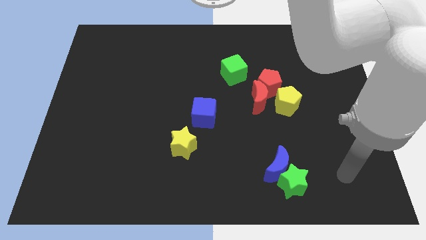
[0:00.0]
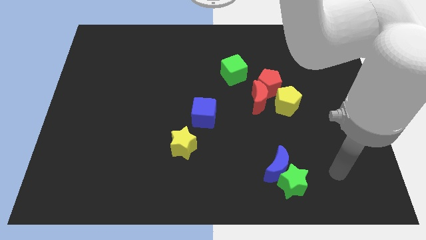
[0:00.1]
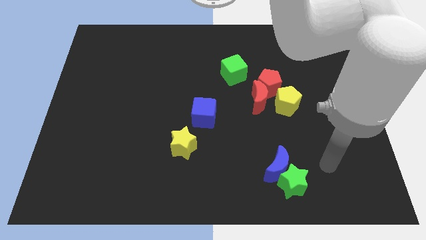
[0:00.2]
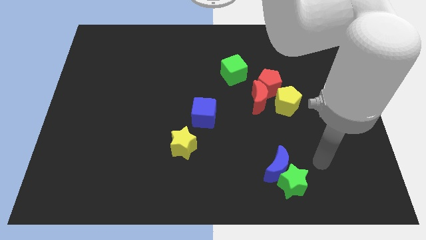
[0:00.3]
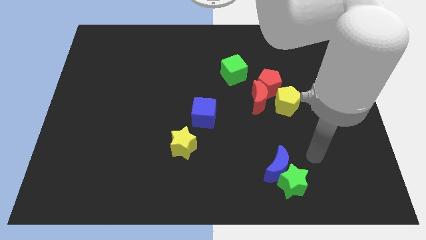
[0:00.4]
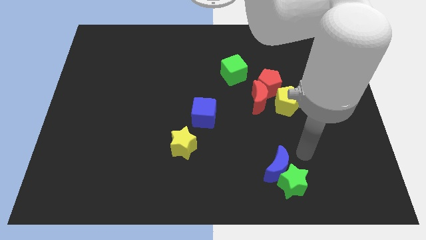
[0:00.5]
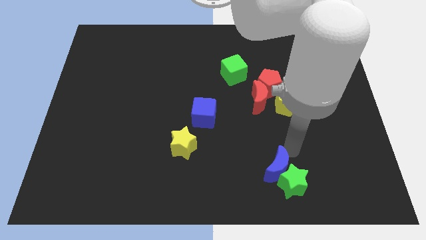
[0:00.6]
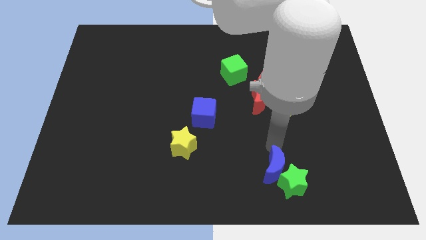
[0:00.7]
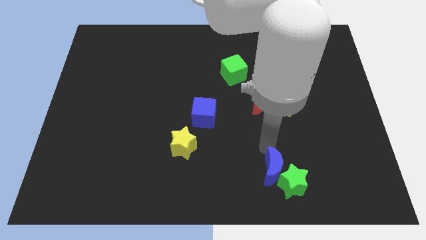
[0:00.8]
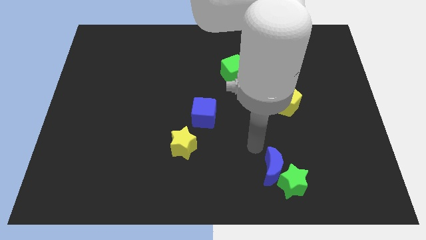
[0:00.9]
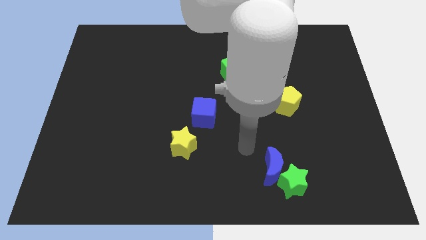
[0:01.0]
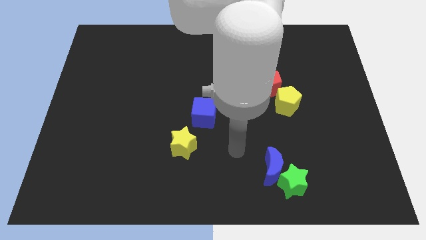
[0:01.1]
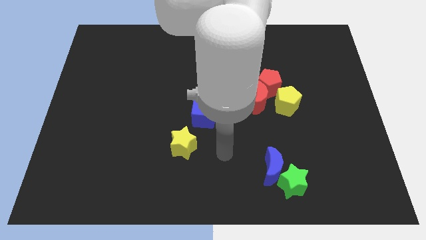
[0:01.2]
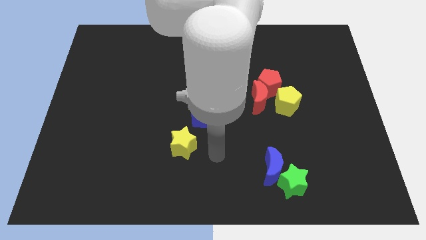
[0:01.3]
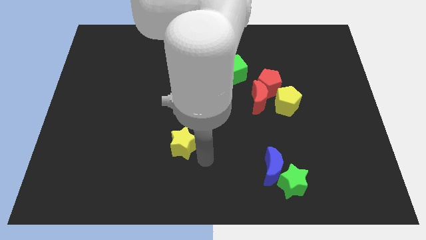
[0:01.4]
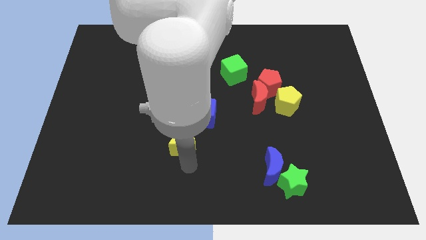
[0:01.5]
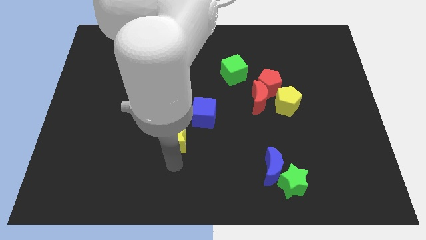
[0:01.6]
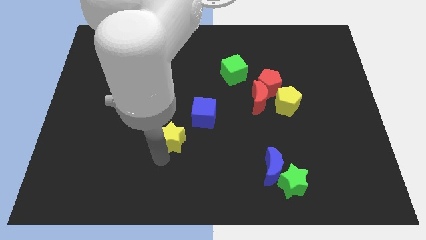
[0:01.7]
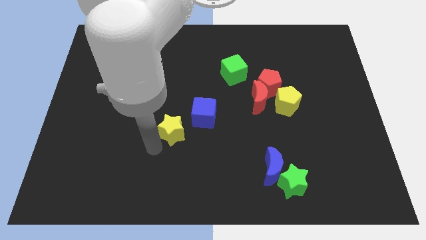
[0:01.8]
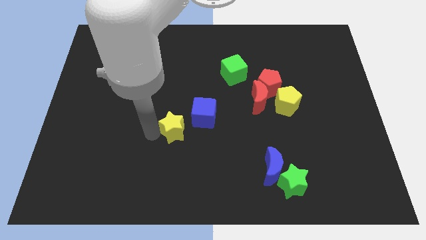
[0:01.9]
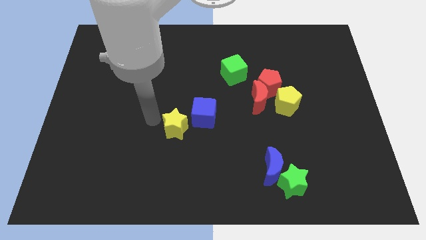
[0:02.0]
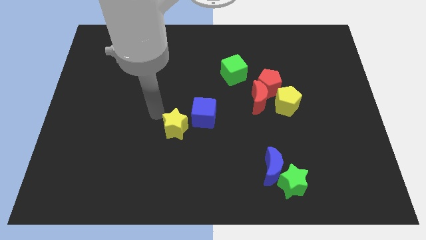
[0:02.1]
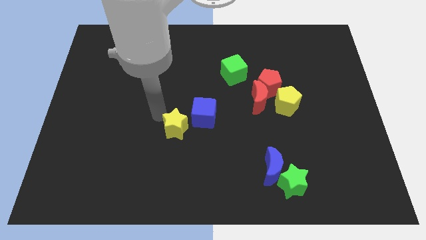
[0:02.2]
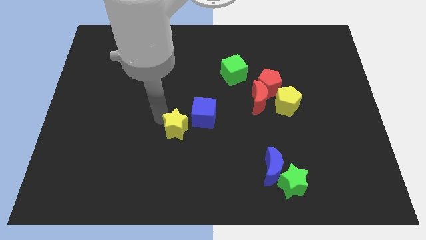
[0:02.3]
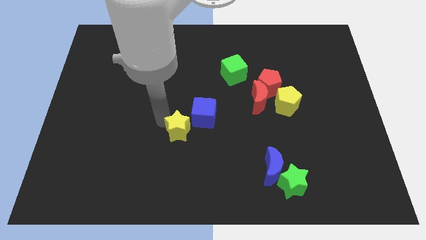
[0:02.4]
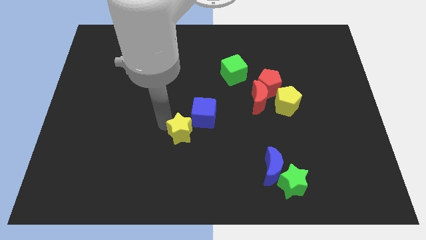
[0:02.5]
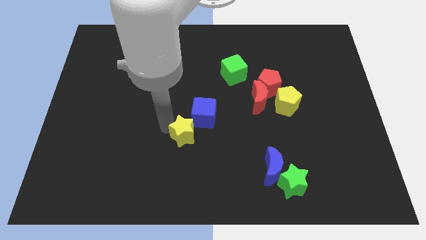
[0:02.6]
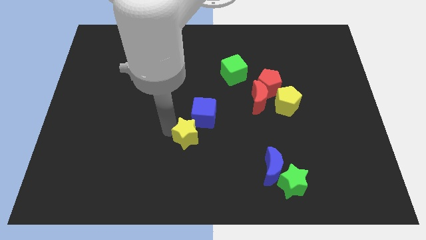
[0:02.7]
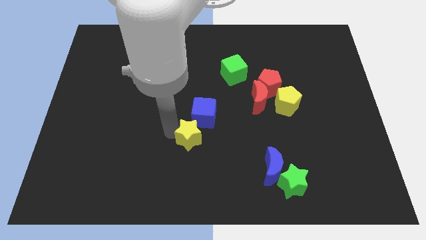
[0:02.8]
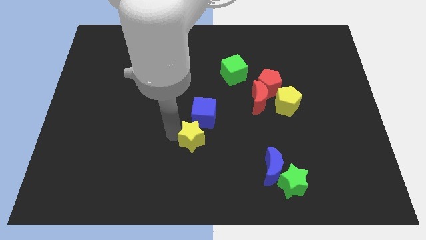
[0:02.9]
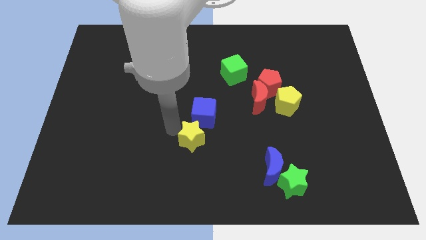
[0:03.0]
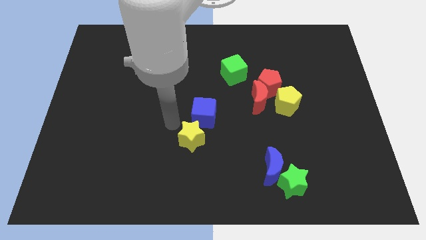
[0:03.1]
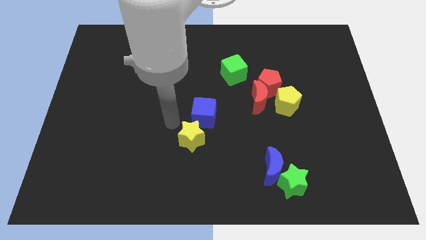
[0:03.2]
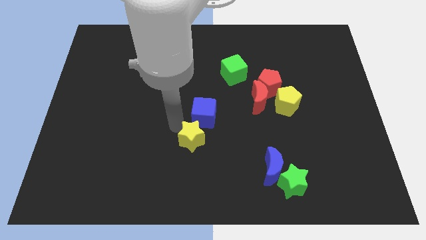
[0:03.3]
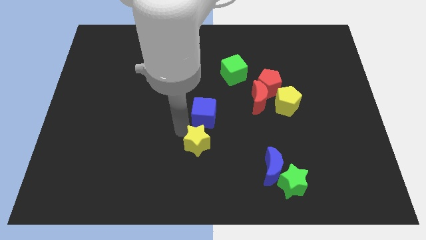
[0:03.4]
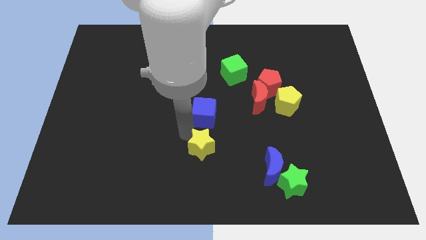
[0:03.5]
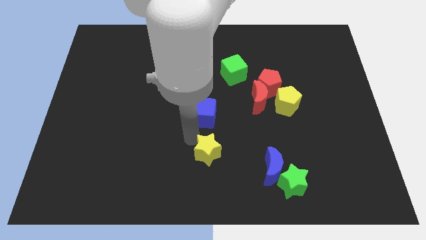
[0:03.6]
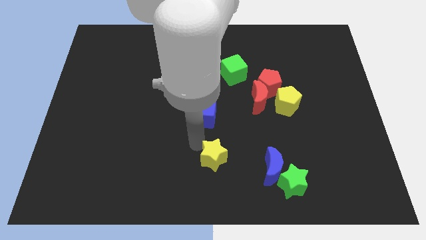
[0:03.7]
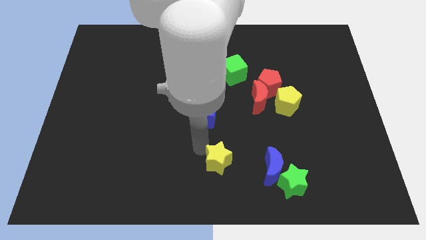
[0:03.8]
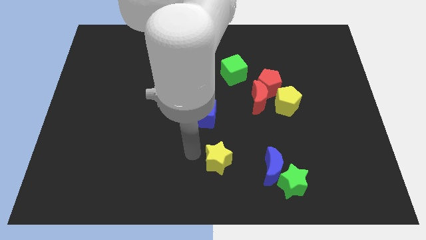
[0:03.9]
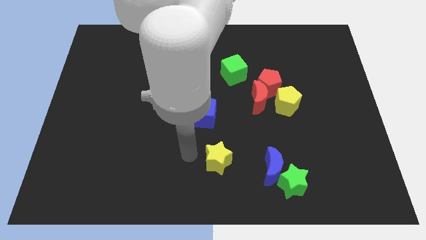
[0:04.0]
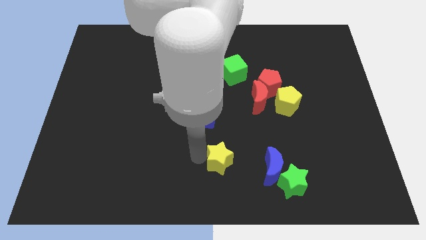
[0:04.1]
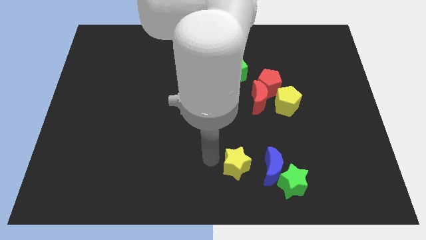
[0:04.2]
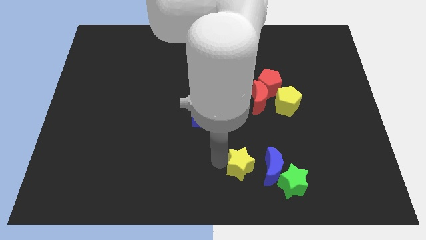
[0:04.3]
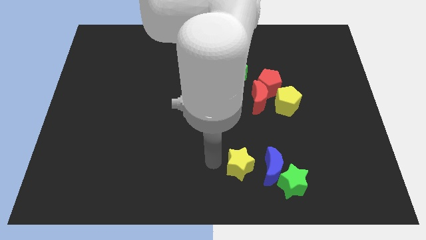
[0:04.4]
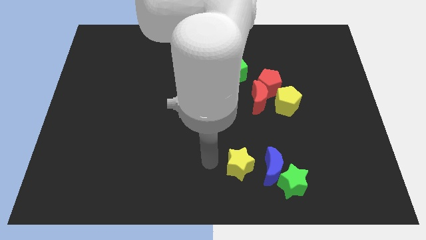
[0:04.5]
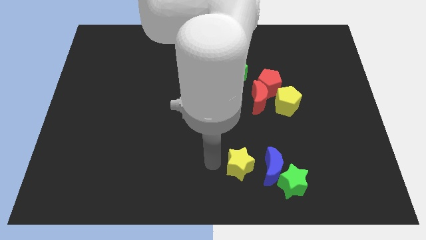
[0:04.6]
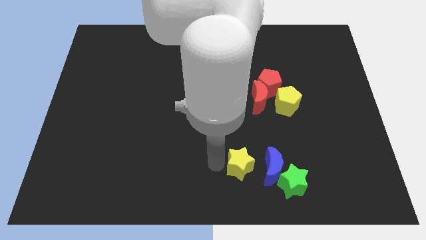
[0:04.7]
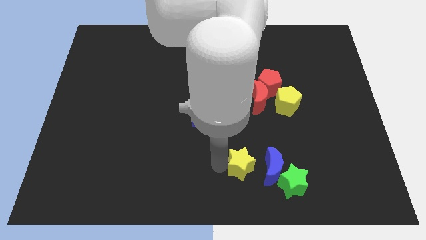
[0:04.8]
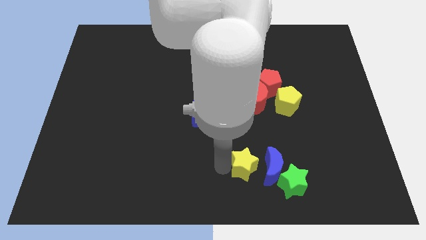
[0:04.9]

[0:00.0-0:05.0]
push the yellow star next to the blue moon

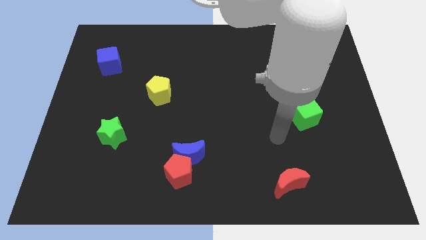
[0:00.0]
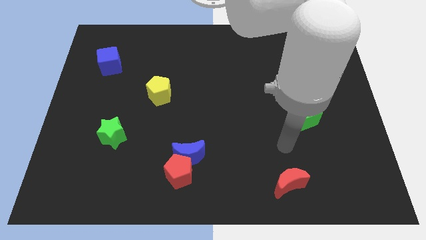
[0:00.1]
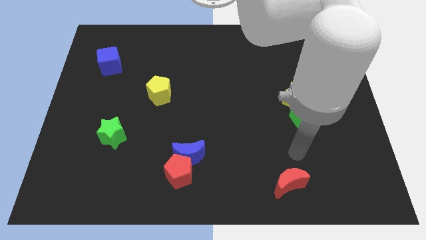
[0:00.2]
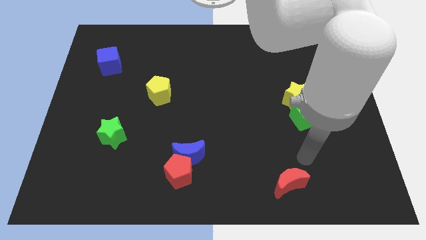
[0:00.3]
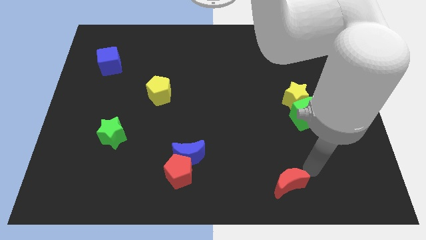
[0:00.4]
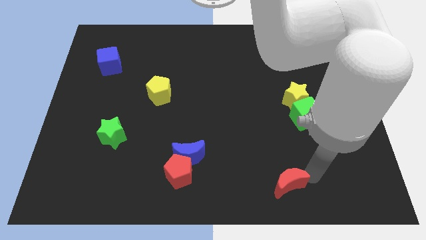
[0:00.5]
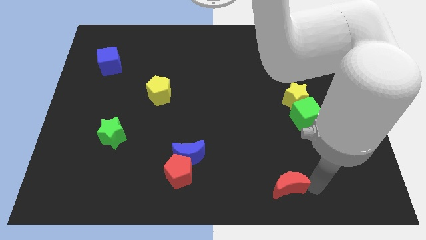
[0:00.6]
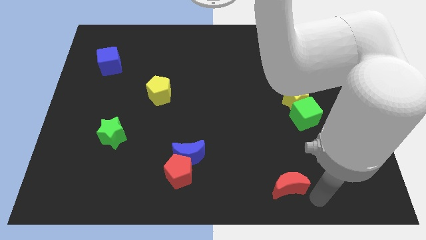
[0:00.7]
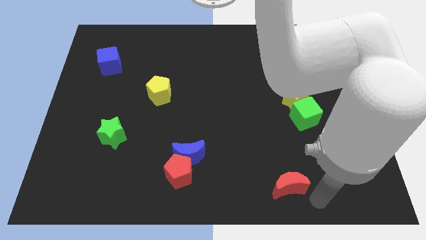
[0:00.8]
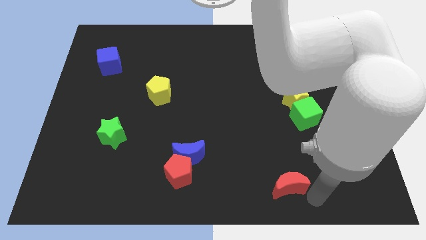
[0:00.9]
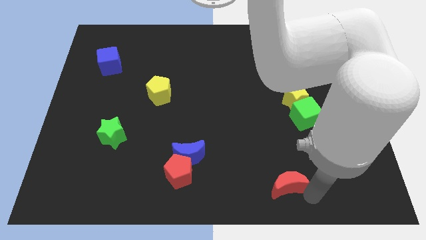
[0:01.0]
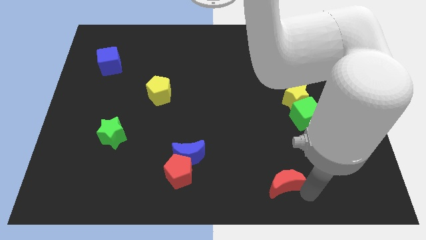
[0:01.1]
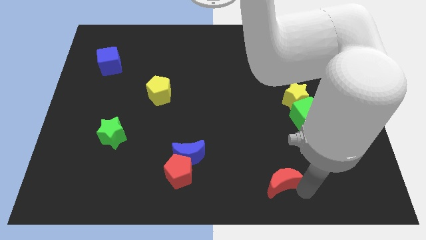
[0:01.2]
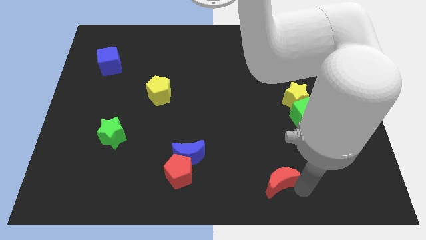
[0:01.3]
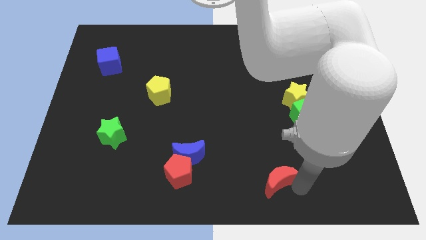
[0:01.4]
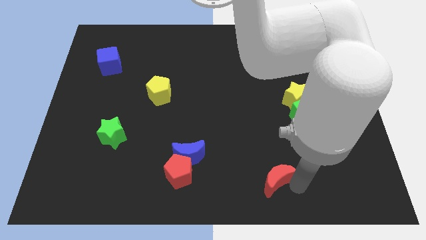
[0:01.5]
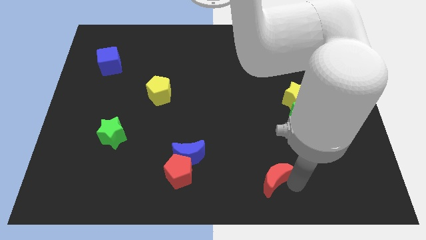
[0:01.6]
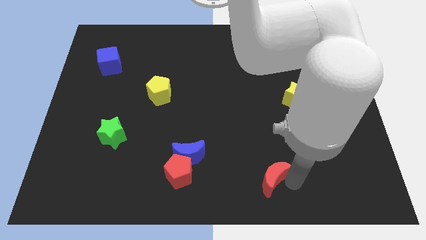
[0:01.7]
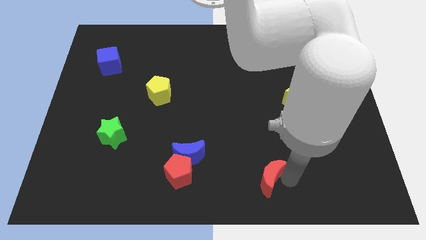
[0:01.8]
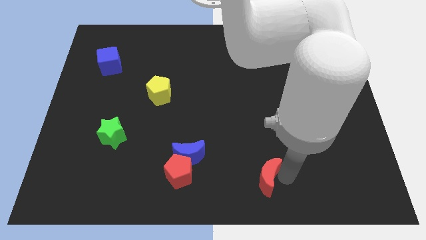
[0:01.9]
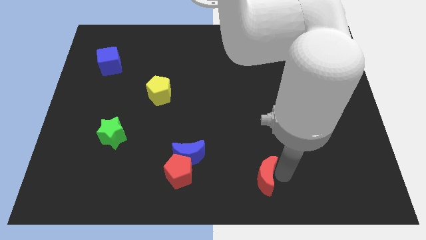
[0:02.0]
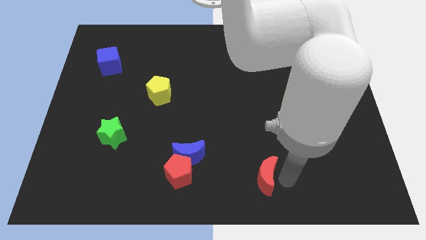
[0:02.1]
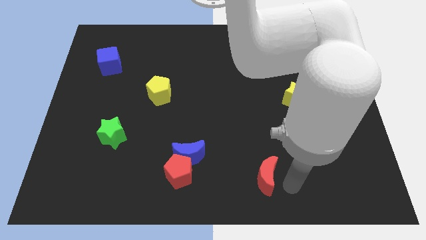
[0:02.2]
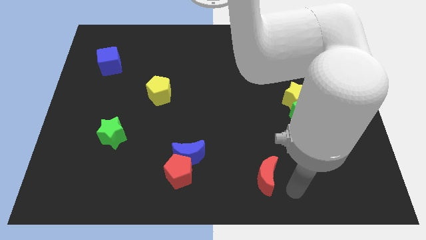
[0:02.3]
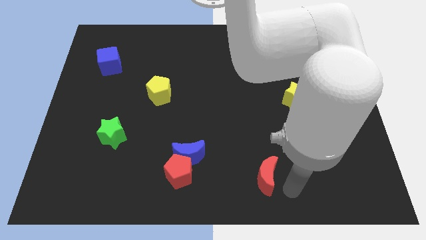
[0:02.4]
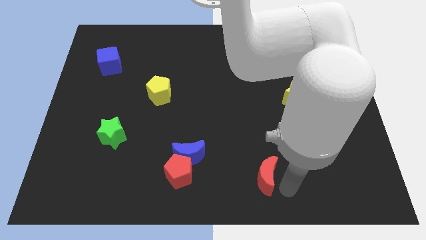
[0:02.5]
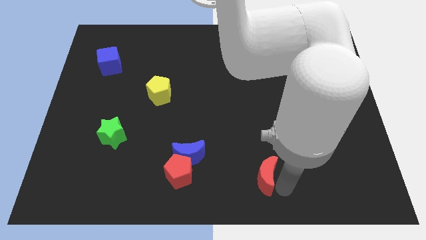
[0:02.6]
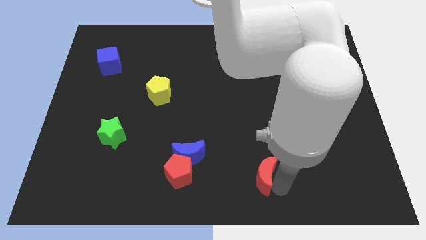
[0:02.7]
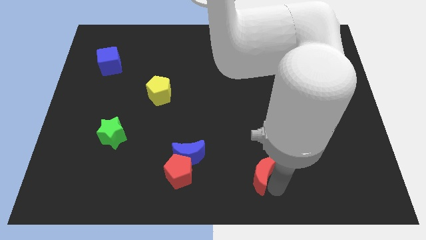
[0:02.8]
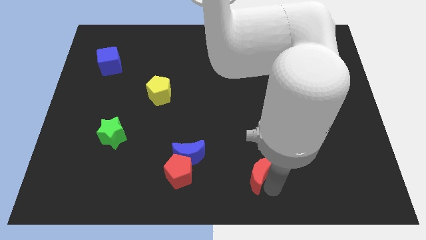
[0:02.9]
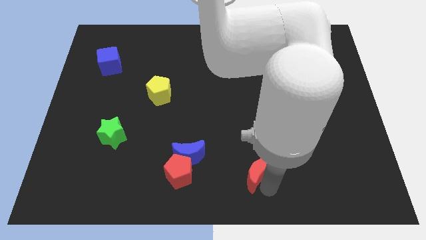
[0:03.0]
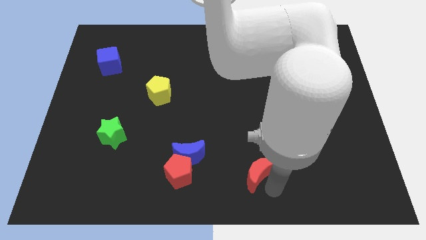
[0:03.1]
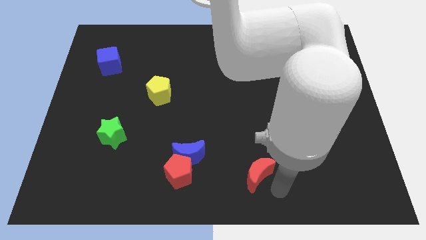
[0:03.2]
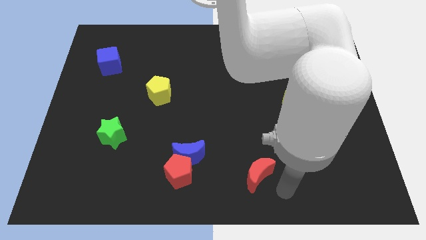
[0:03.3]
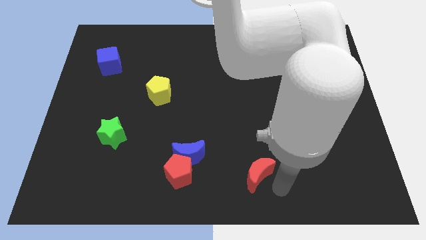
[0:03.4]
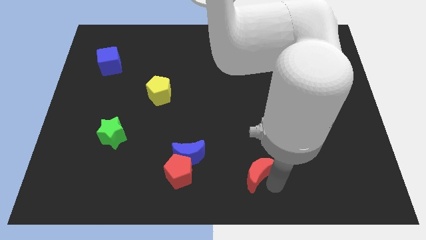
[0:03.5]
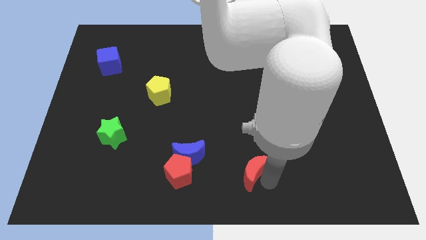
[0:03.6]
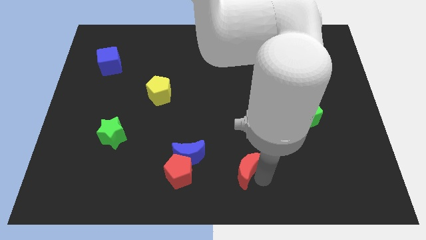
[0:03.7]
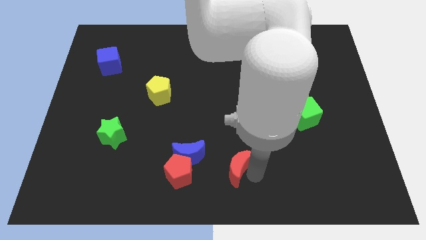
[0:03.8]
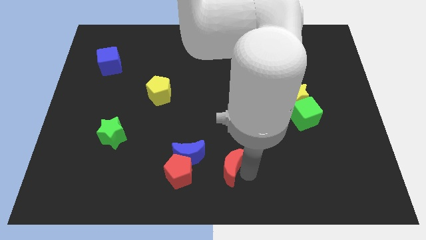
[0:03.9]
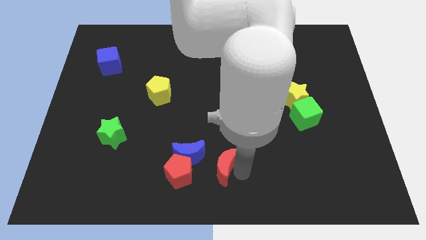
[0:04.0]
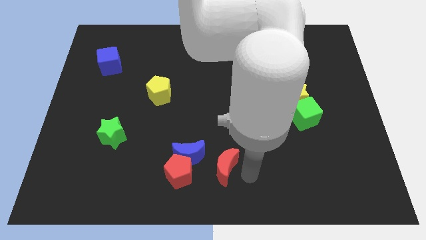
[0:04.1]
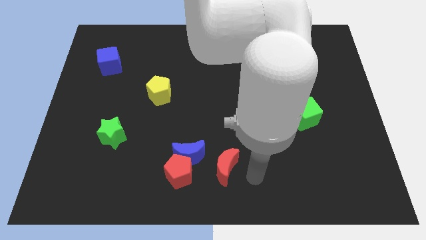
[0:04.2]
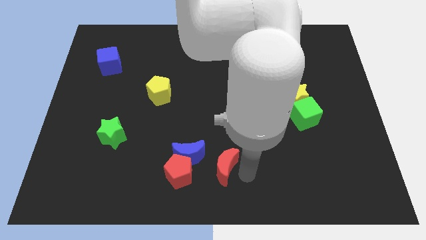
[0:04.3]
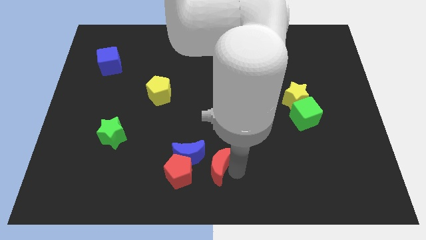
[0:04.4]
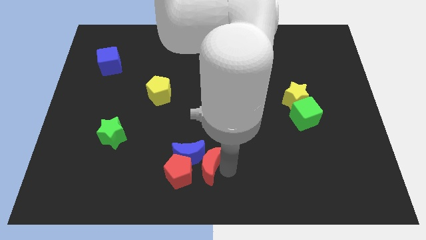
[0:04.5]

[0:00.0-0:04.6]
put the red moon next to the blue moon
